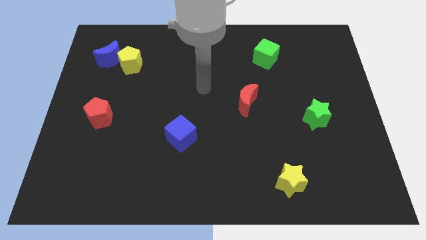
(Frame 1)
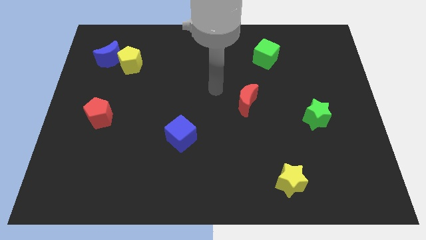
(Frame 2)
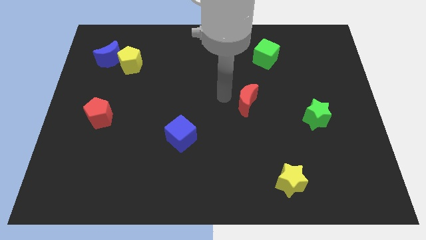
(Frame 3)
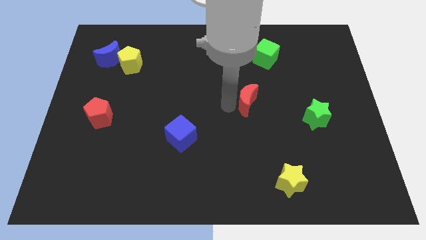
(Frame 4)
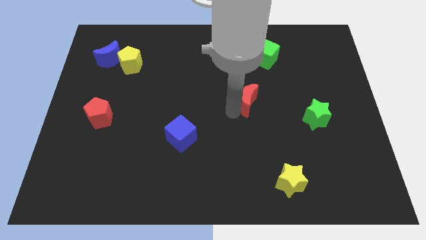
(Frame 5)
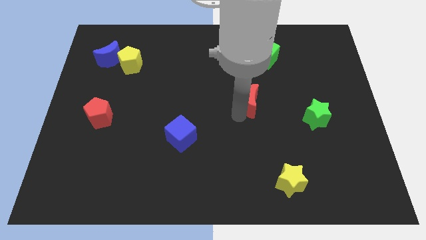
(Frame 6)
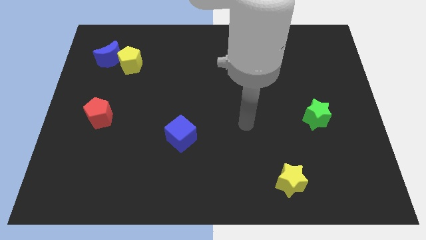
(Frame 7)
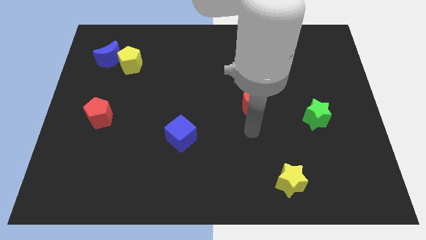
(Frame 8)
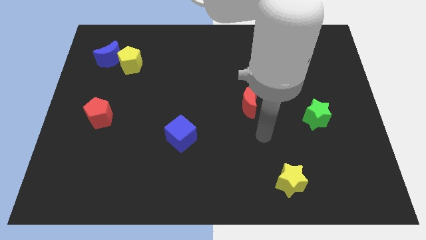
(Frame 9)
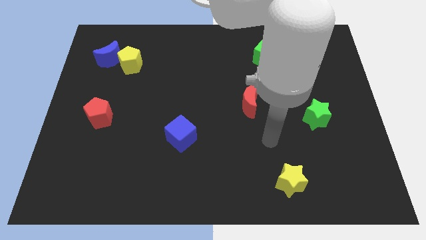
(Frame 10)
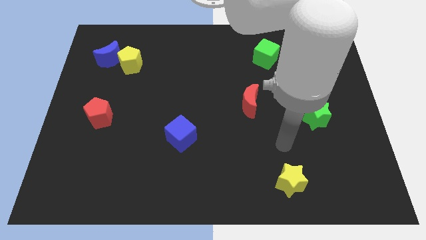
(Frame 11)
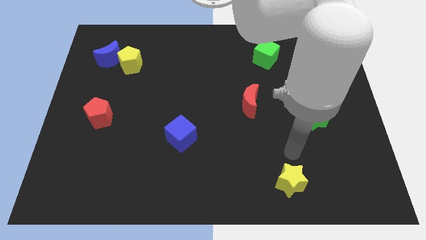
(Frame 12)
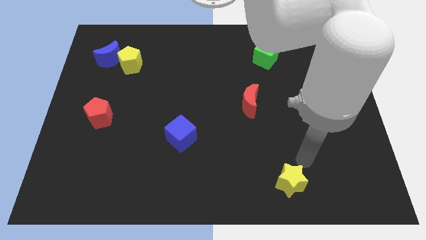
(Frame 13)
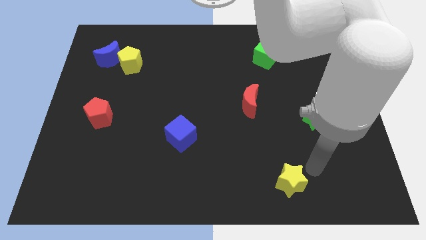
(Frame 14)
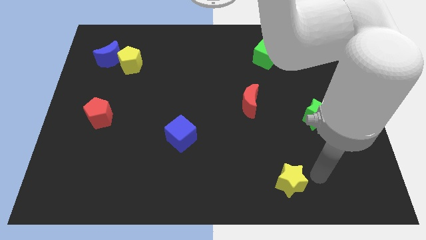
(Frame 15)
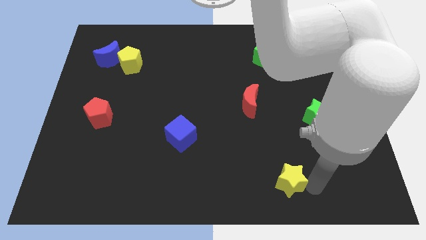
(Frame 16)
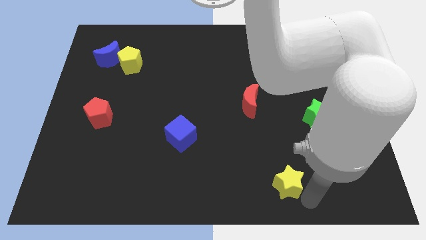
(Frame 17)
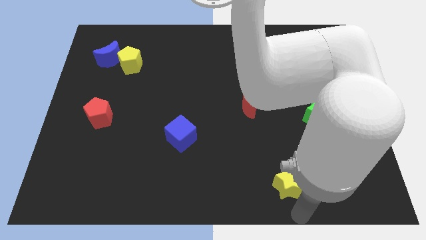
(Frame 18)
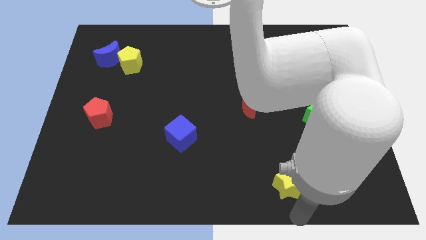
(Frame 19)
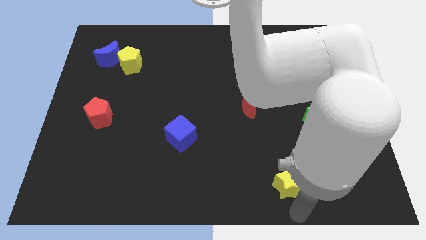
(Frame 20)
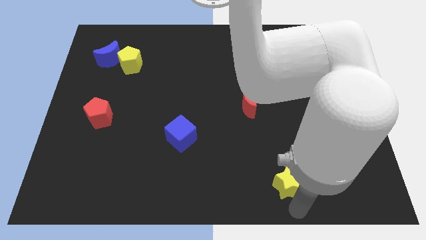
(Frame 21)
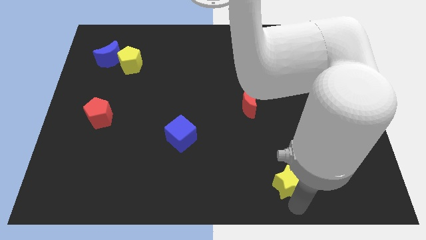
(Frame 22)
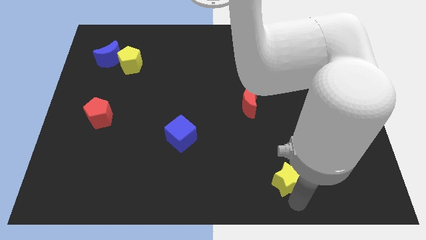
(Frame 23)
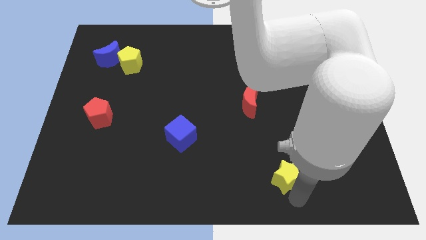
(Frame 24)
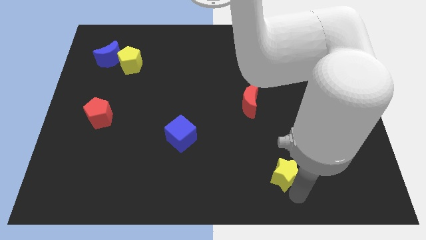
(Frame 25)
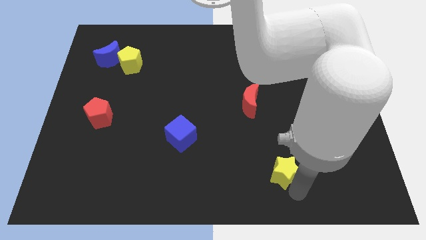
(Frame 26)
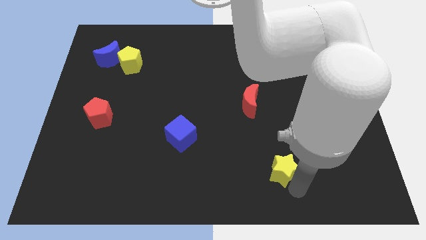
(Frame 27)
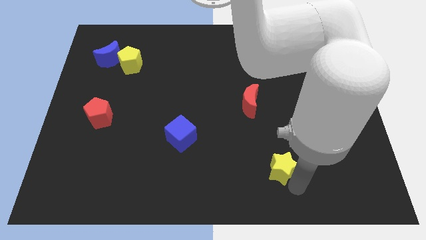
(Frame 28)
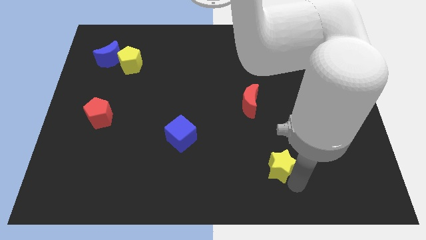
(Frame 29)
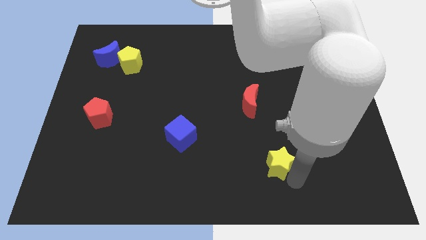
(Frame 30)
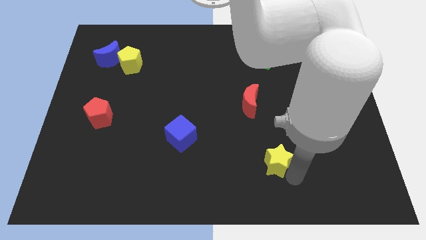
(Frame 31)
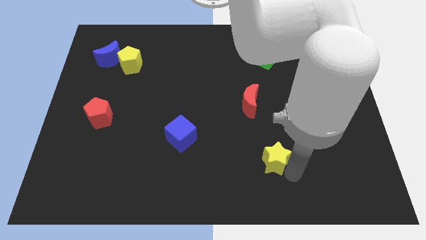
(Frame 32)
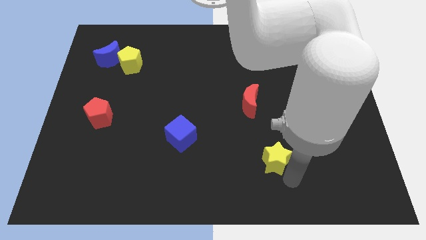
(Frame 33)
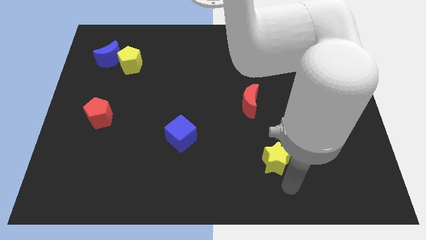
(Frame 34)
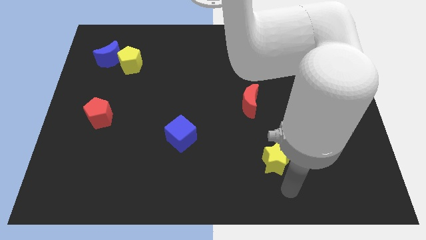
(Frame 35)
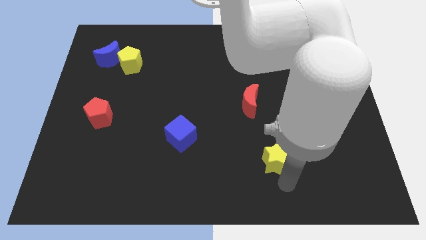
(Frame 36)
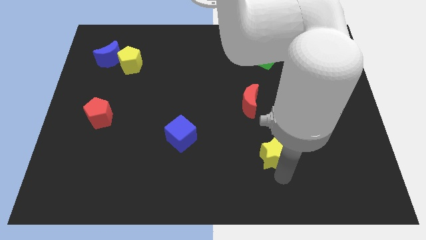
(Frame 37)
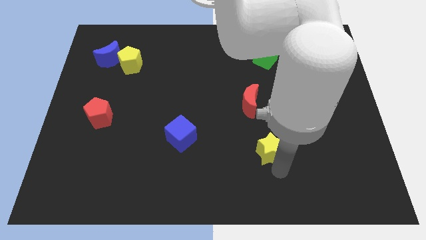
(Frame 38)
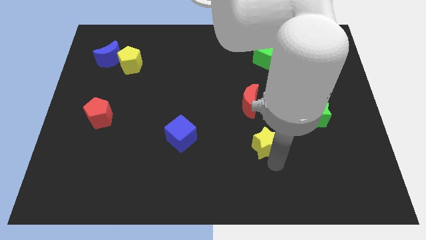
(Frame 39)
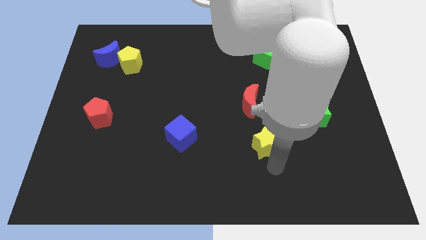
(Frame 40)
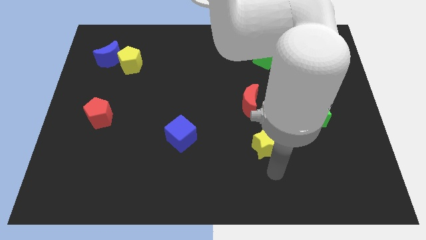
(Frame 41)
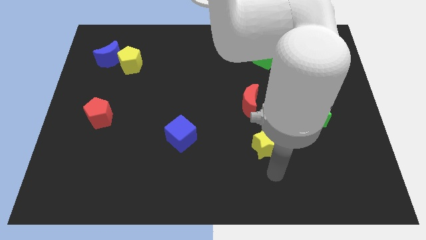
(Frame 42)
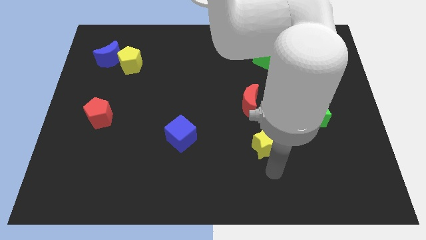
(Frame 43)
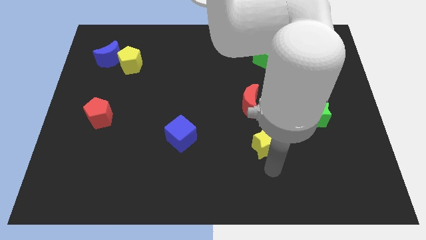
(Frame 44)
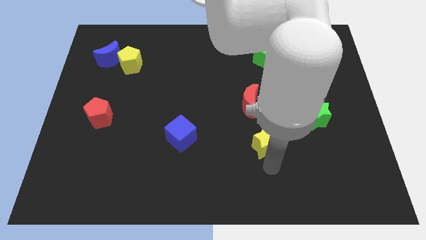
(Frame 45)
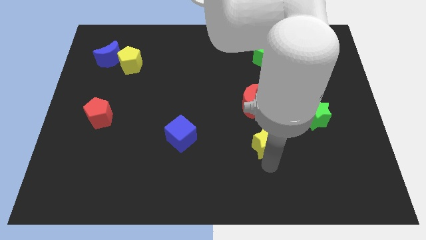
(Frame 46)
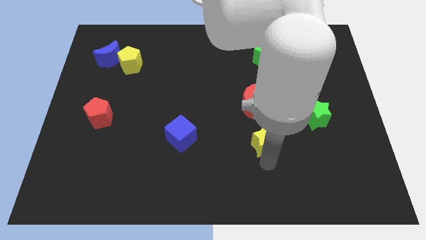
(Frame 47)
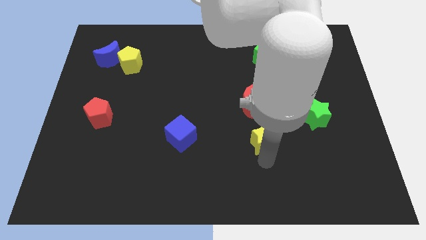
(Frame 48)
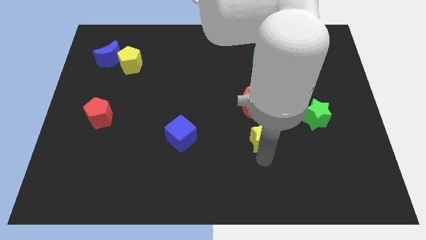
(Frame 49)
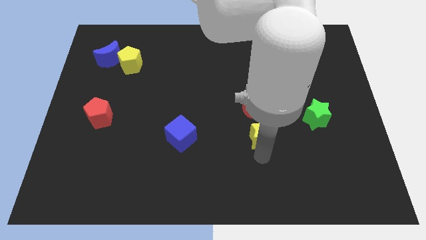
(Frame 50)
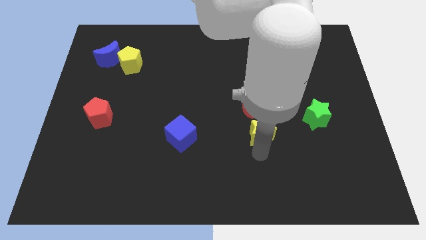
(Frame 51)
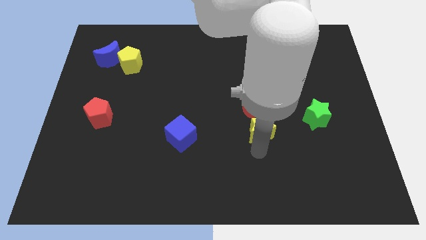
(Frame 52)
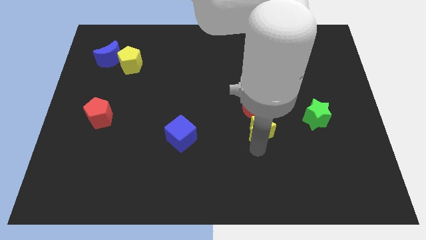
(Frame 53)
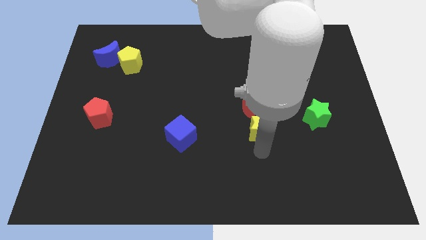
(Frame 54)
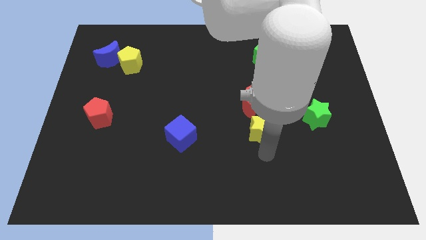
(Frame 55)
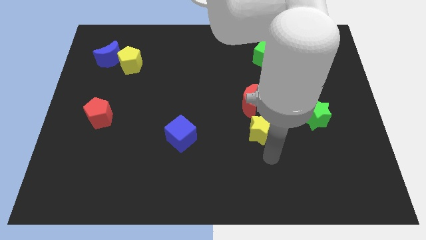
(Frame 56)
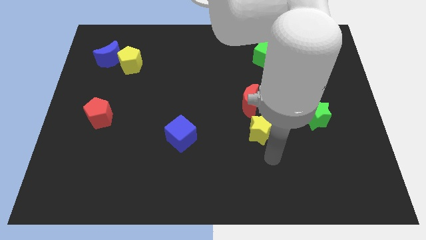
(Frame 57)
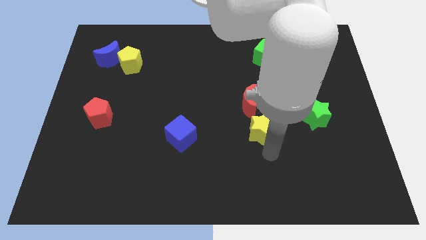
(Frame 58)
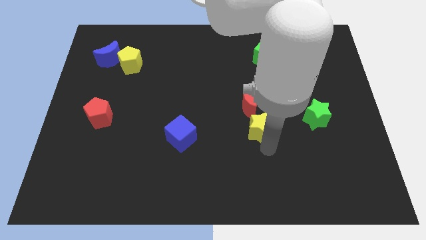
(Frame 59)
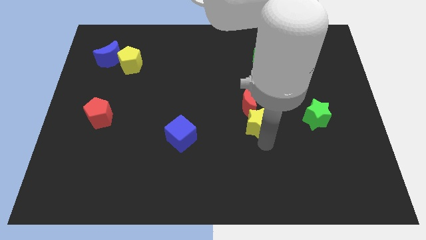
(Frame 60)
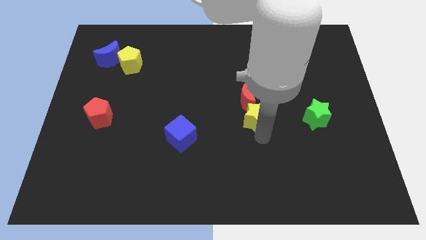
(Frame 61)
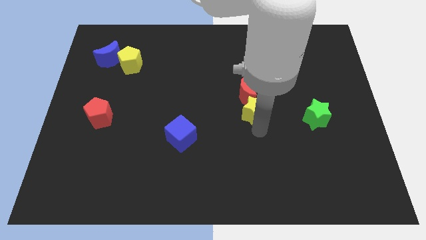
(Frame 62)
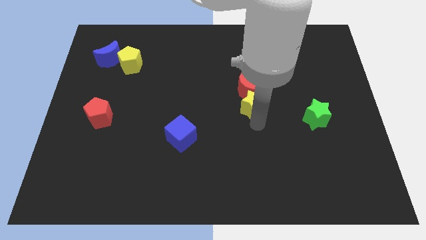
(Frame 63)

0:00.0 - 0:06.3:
move the yellow star towards the red moon
